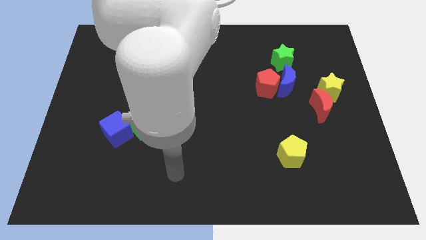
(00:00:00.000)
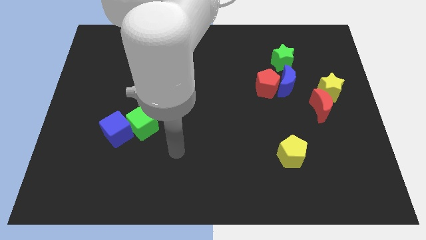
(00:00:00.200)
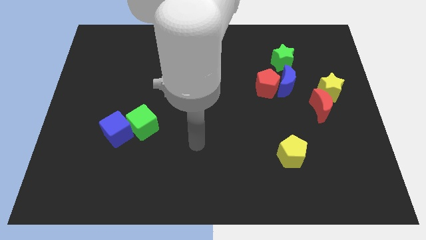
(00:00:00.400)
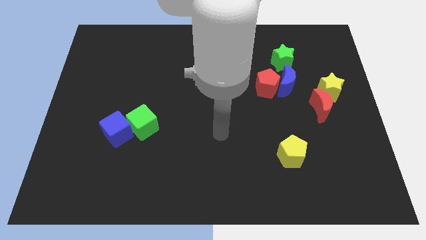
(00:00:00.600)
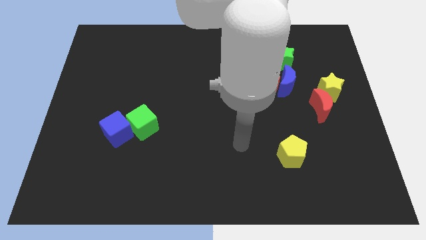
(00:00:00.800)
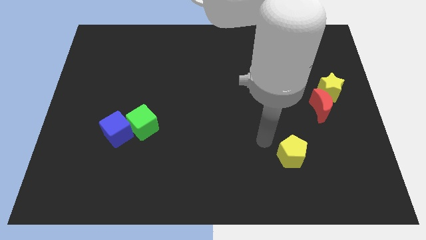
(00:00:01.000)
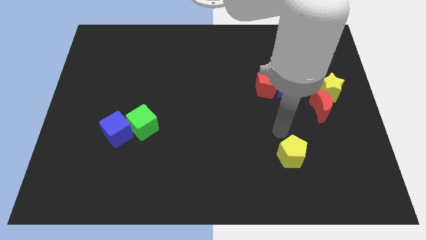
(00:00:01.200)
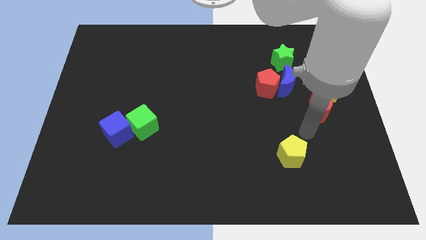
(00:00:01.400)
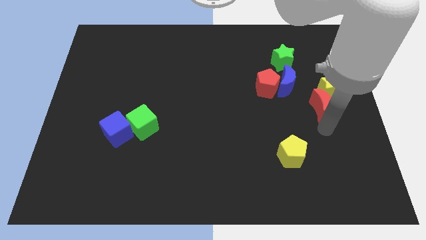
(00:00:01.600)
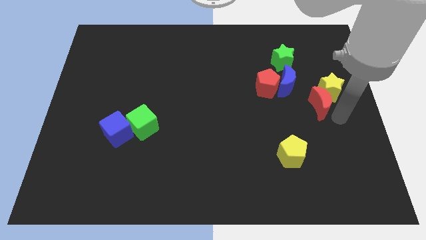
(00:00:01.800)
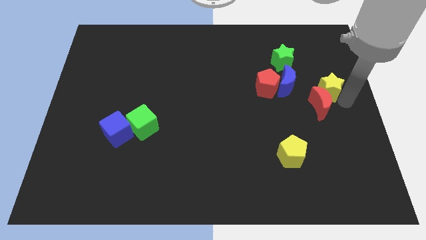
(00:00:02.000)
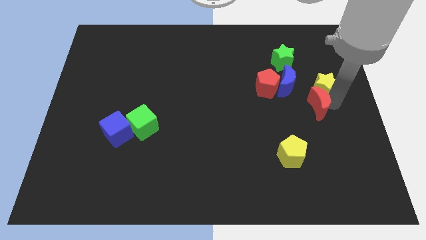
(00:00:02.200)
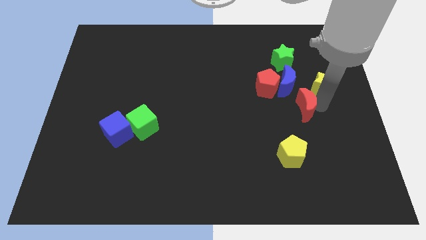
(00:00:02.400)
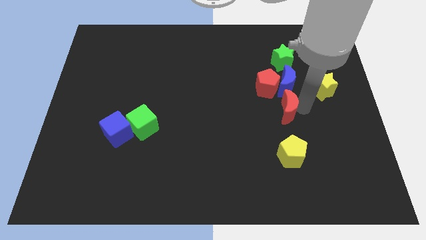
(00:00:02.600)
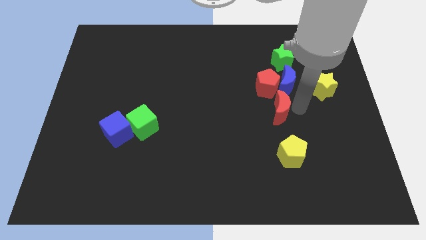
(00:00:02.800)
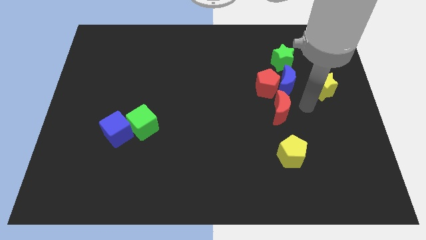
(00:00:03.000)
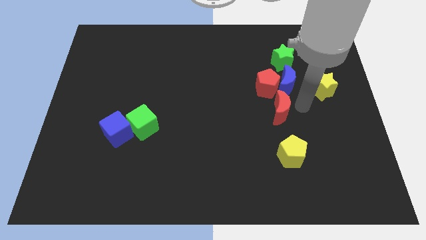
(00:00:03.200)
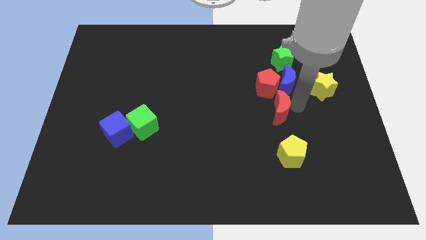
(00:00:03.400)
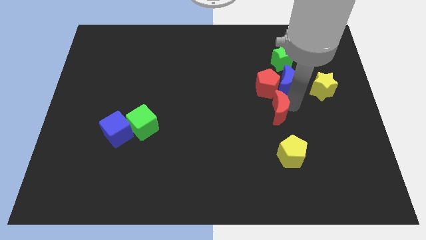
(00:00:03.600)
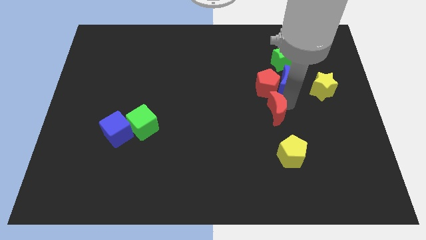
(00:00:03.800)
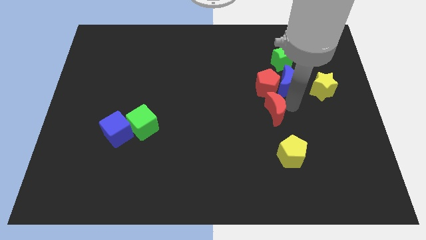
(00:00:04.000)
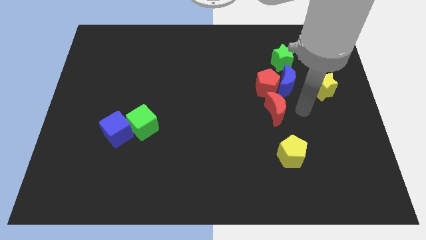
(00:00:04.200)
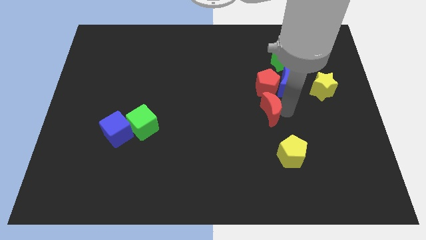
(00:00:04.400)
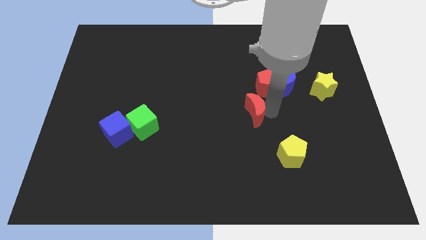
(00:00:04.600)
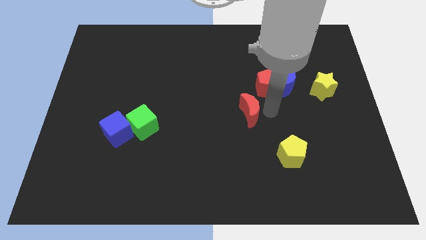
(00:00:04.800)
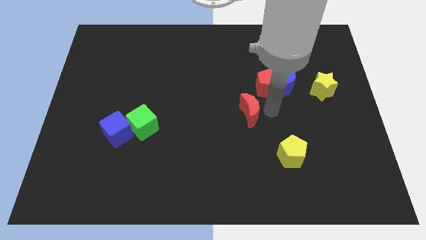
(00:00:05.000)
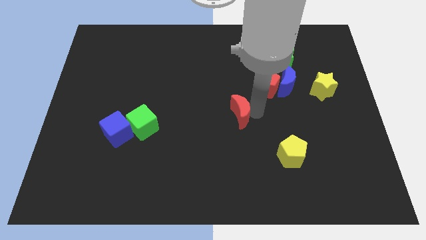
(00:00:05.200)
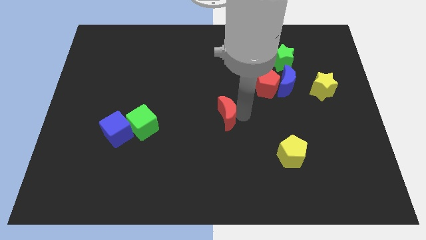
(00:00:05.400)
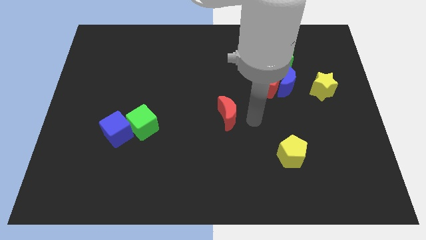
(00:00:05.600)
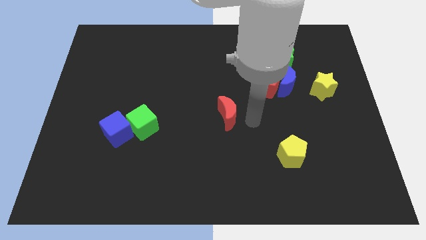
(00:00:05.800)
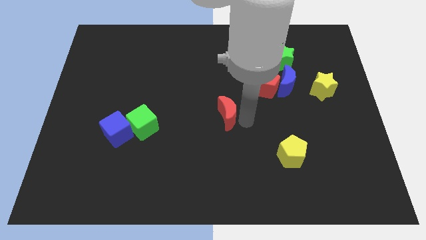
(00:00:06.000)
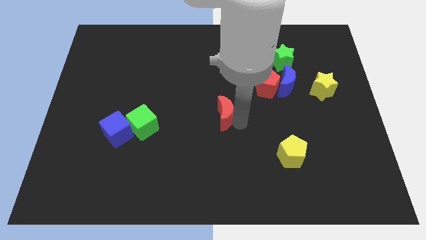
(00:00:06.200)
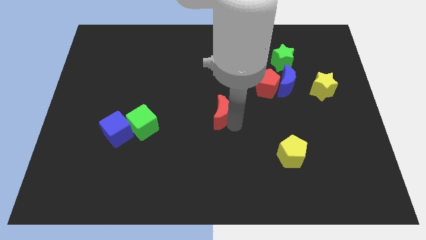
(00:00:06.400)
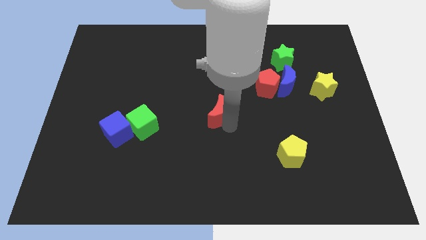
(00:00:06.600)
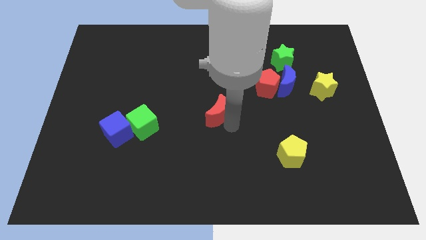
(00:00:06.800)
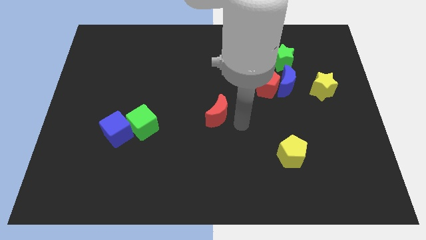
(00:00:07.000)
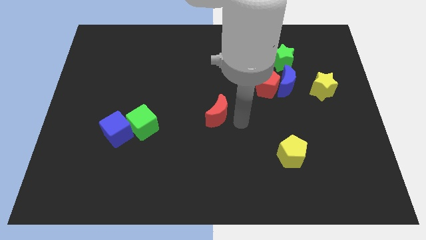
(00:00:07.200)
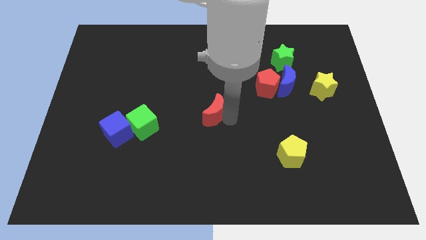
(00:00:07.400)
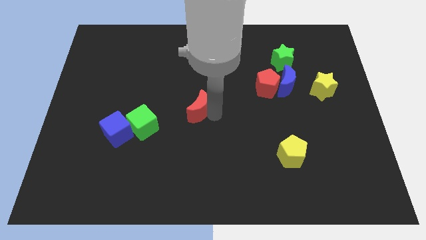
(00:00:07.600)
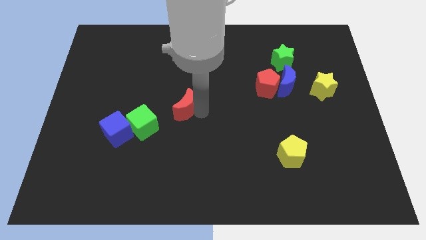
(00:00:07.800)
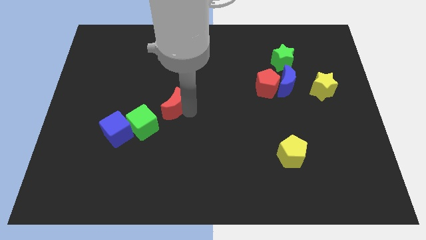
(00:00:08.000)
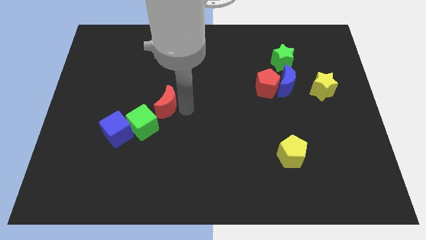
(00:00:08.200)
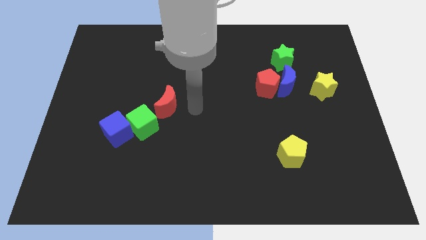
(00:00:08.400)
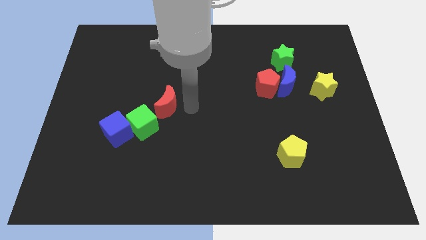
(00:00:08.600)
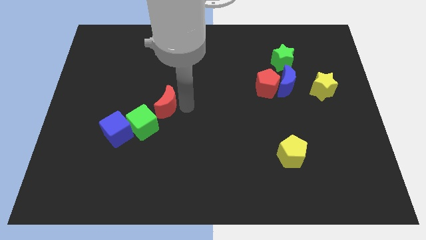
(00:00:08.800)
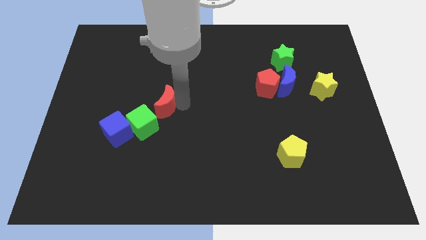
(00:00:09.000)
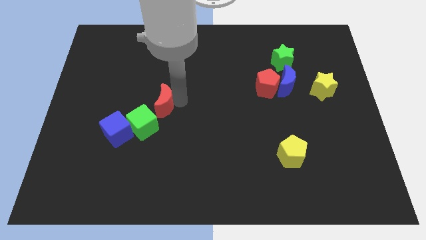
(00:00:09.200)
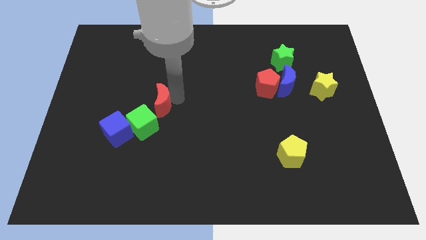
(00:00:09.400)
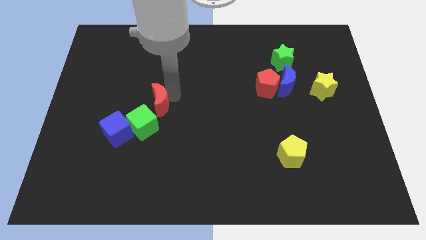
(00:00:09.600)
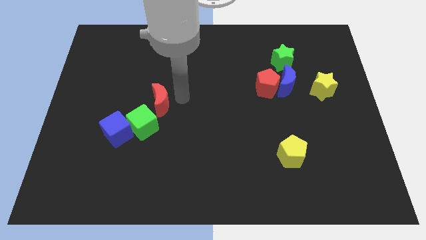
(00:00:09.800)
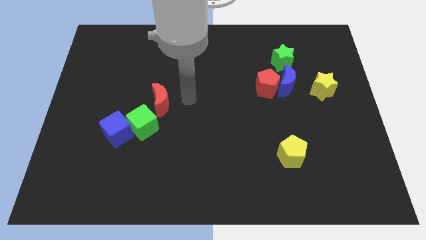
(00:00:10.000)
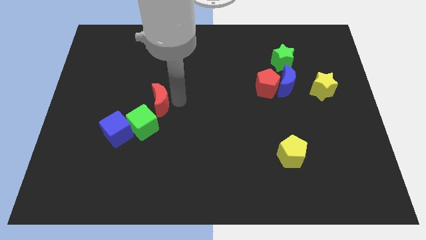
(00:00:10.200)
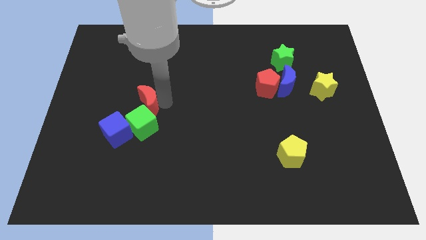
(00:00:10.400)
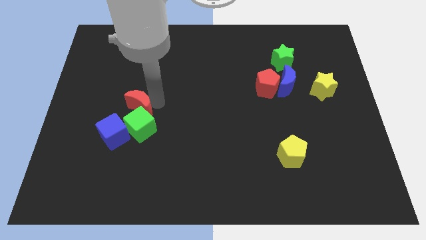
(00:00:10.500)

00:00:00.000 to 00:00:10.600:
push the red moon to the top left side of the green cube

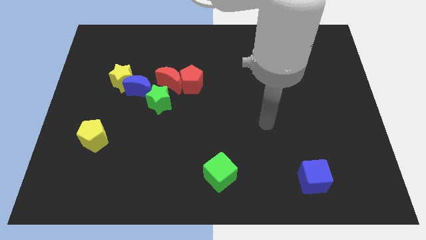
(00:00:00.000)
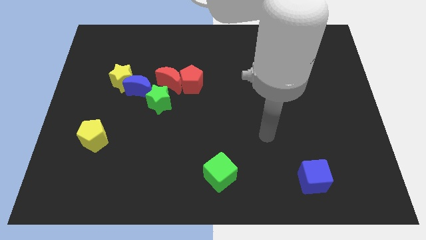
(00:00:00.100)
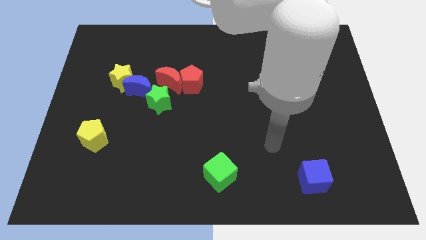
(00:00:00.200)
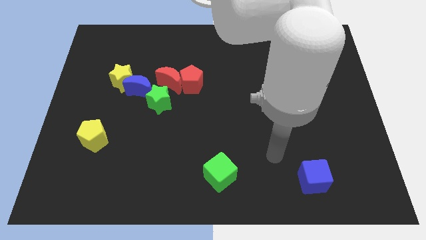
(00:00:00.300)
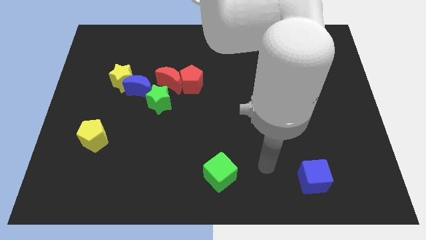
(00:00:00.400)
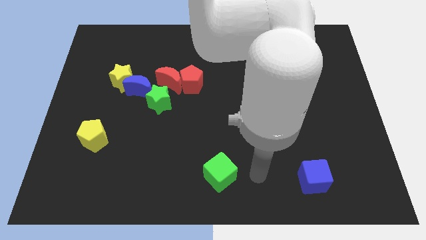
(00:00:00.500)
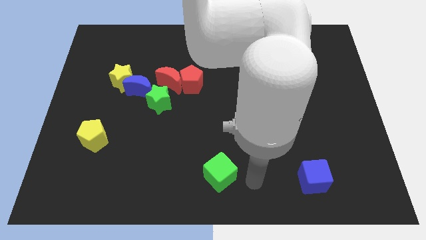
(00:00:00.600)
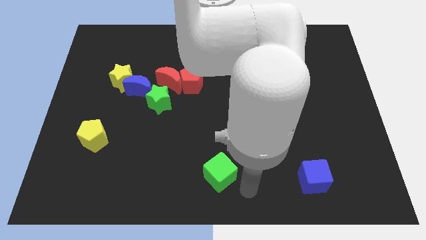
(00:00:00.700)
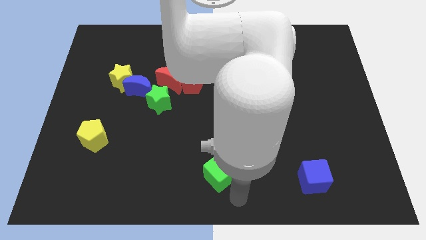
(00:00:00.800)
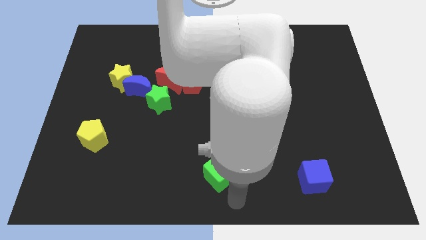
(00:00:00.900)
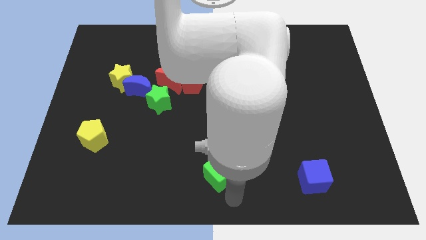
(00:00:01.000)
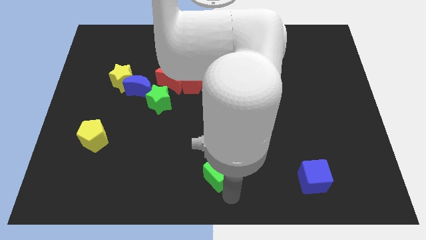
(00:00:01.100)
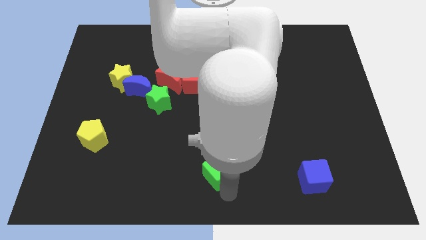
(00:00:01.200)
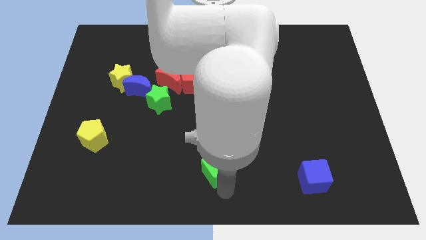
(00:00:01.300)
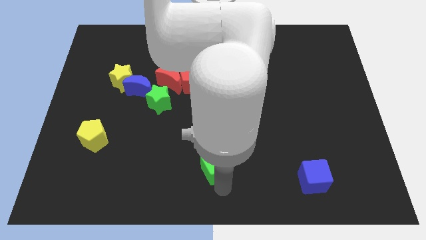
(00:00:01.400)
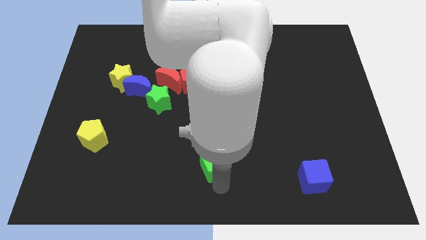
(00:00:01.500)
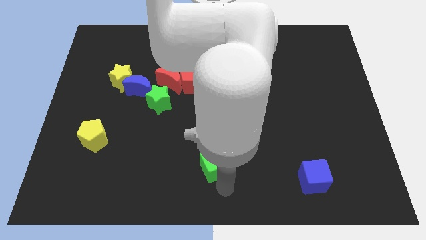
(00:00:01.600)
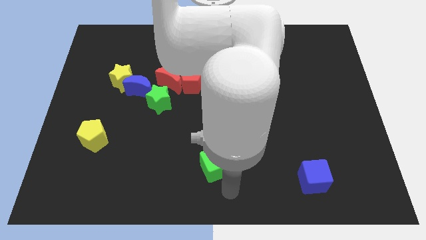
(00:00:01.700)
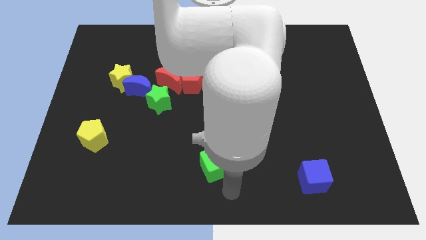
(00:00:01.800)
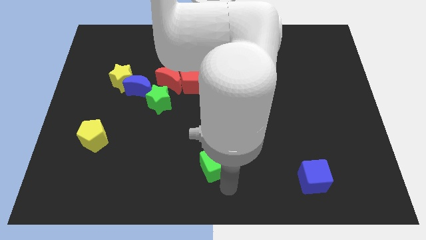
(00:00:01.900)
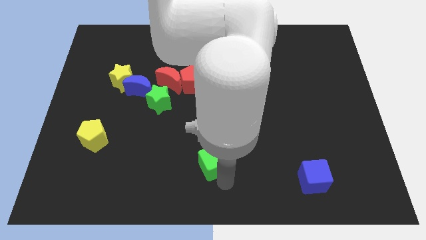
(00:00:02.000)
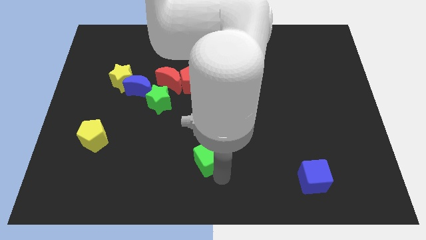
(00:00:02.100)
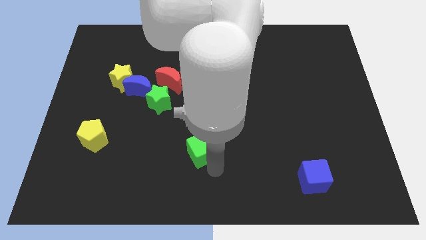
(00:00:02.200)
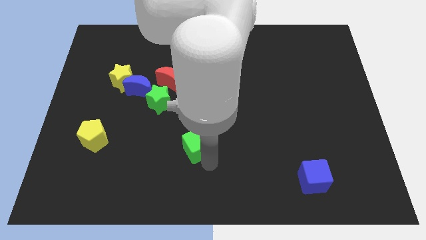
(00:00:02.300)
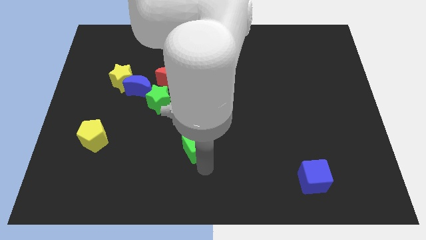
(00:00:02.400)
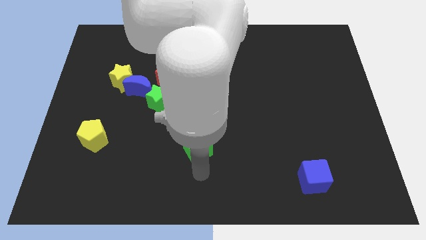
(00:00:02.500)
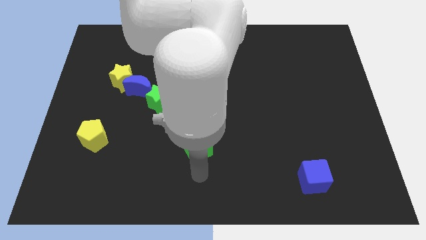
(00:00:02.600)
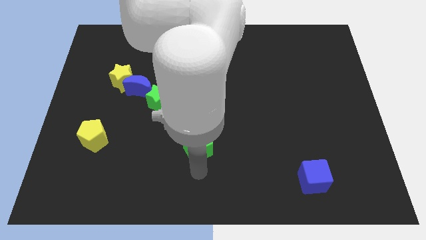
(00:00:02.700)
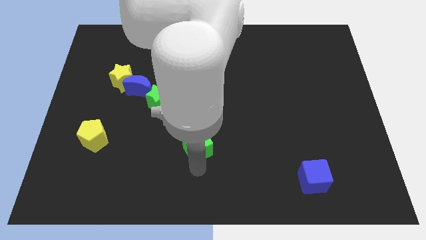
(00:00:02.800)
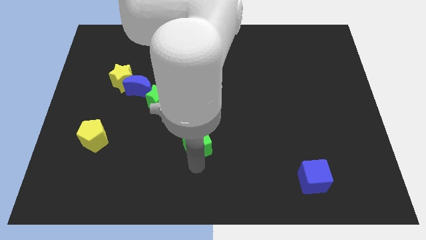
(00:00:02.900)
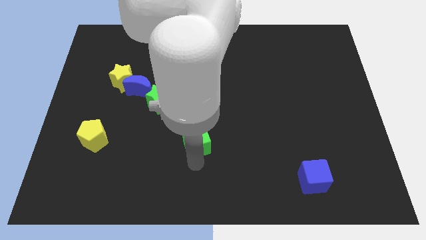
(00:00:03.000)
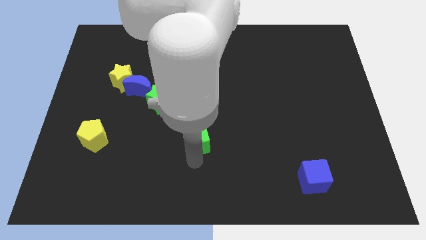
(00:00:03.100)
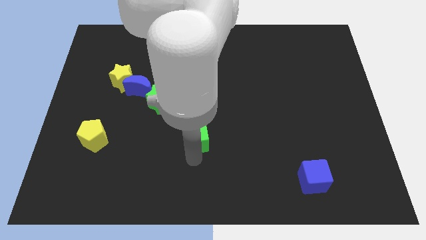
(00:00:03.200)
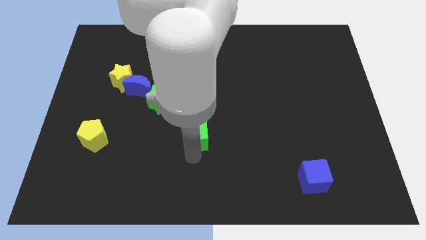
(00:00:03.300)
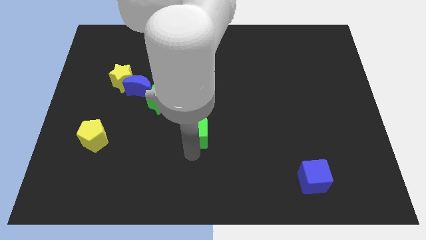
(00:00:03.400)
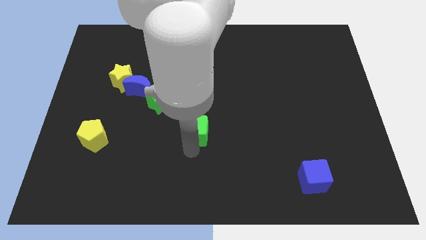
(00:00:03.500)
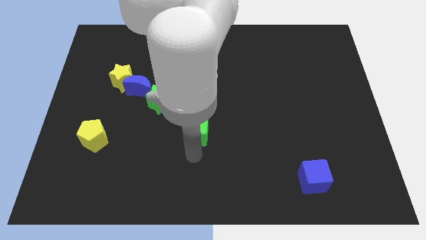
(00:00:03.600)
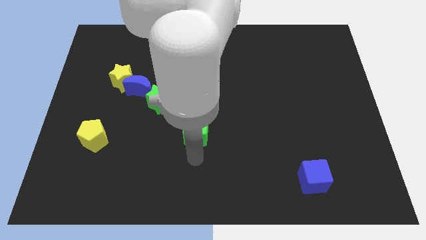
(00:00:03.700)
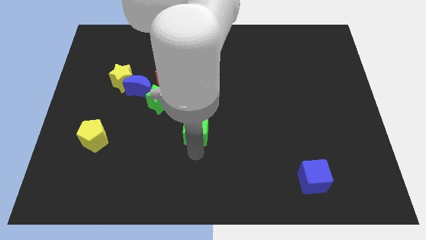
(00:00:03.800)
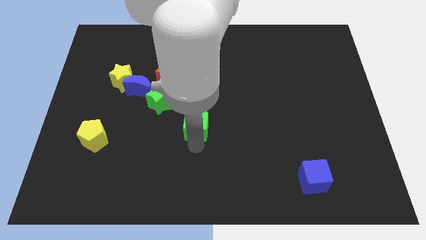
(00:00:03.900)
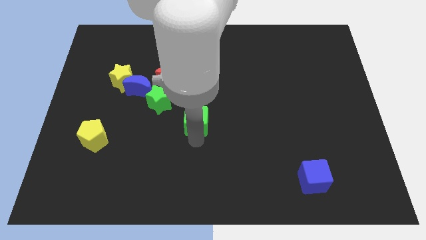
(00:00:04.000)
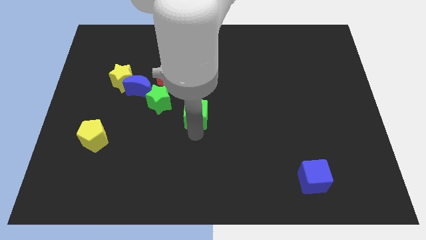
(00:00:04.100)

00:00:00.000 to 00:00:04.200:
put the green cube right of the green star
